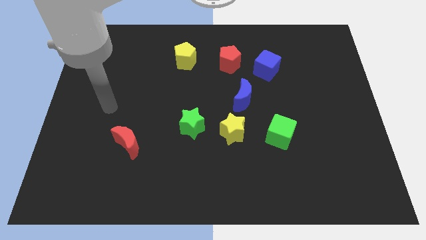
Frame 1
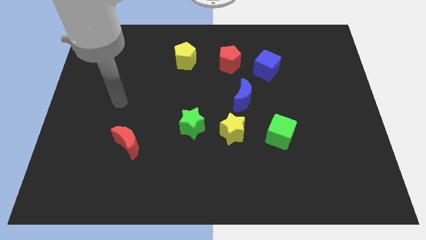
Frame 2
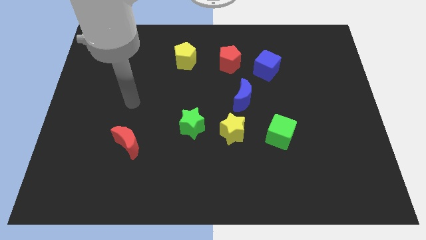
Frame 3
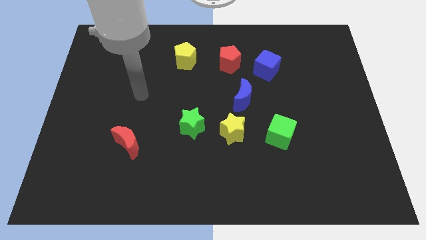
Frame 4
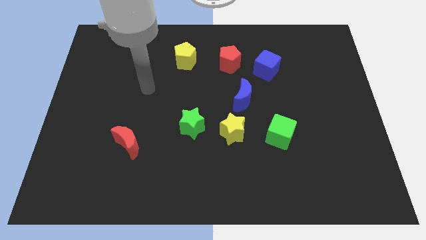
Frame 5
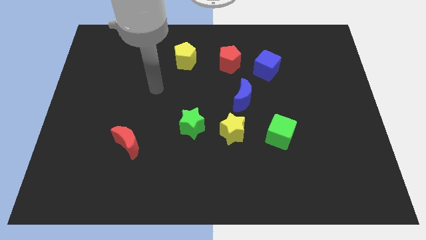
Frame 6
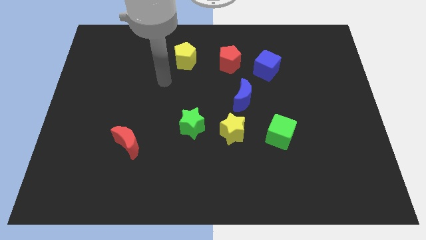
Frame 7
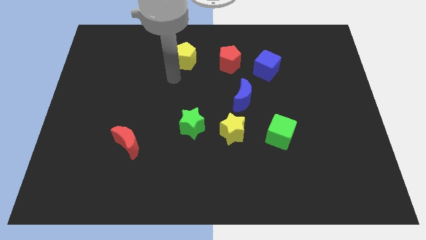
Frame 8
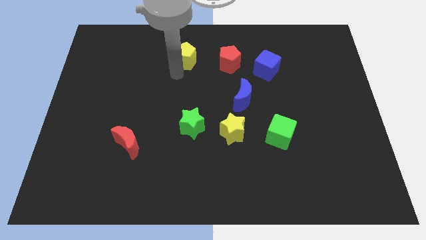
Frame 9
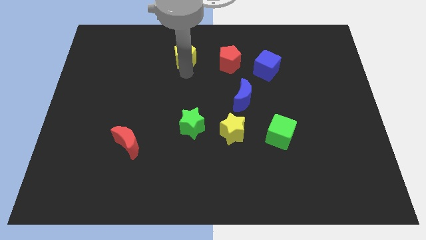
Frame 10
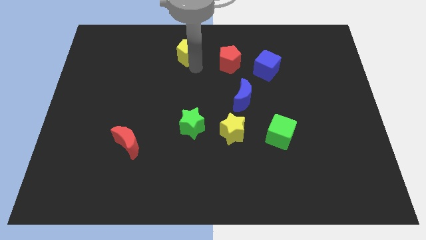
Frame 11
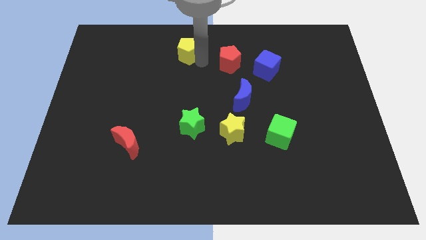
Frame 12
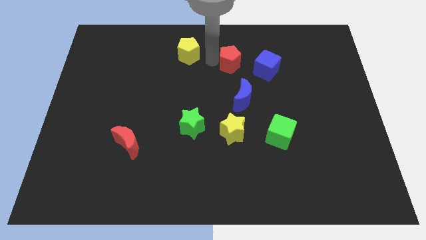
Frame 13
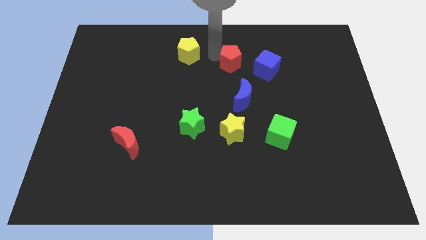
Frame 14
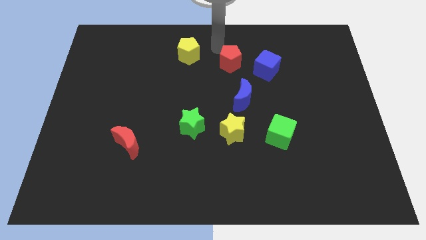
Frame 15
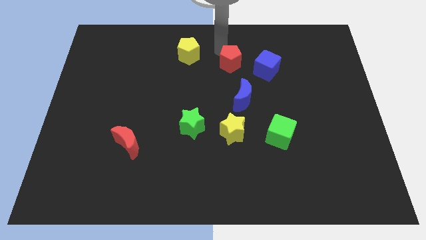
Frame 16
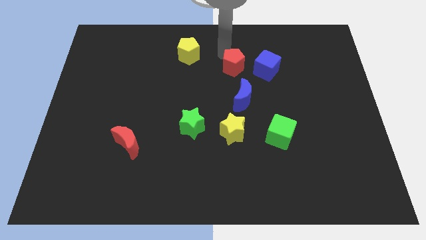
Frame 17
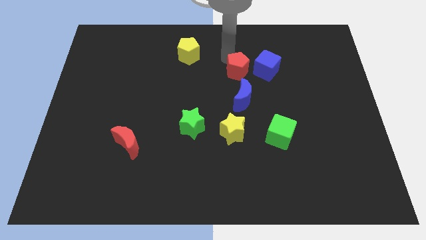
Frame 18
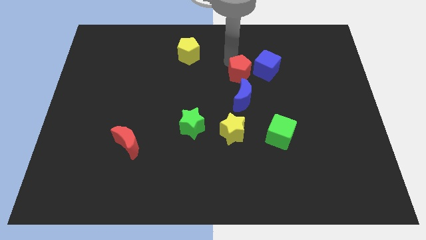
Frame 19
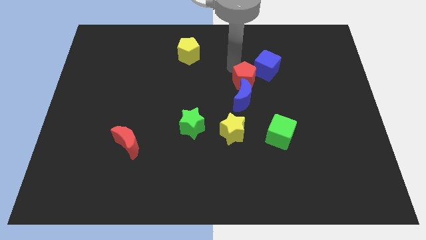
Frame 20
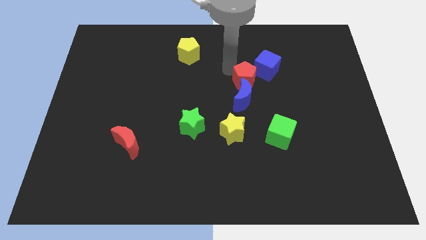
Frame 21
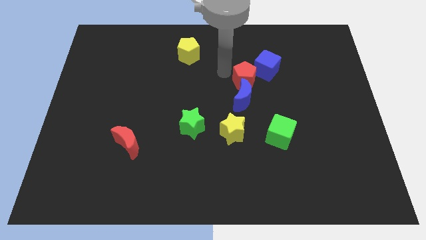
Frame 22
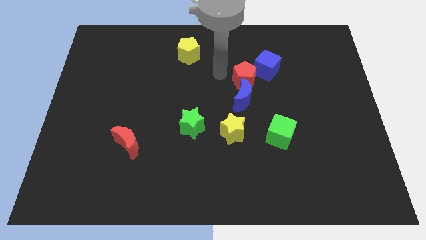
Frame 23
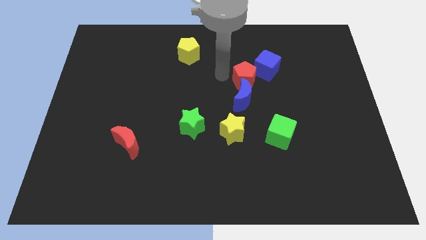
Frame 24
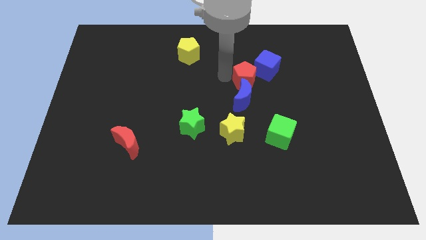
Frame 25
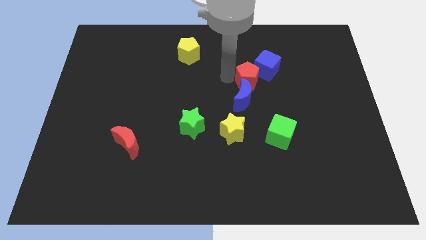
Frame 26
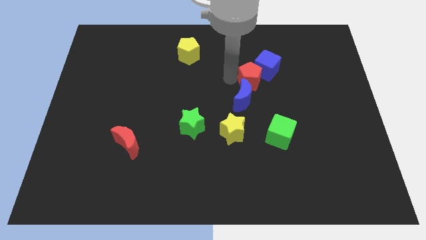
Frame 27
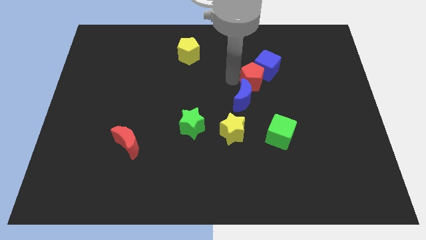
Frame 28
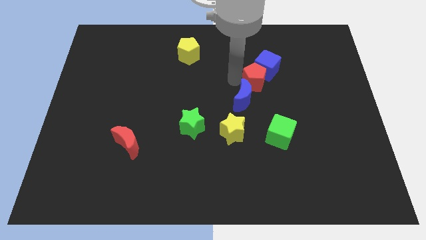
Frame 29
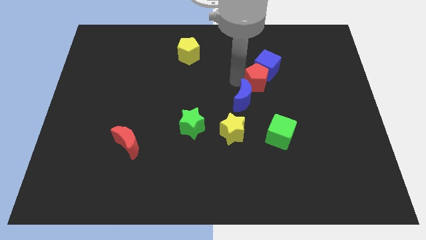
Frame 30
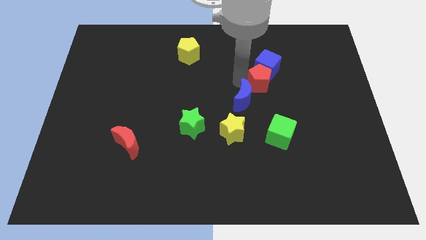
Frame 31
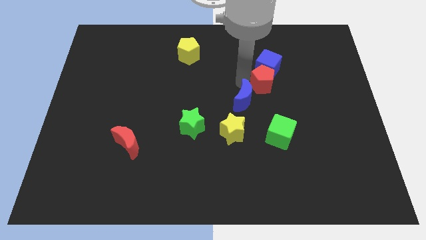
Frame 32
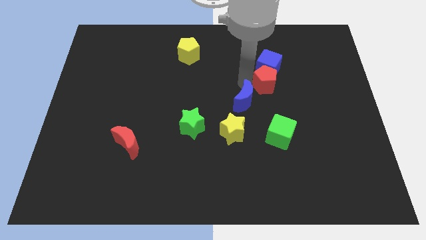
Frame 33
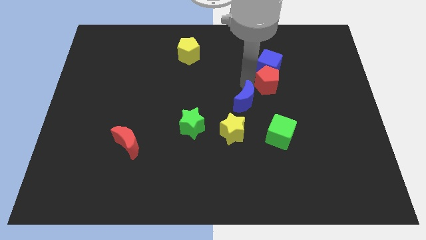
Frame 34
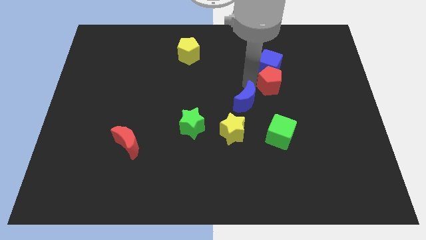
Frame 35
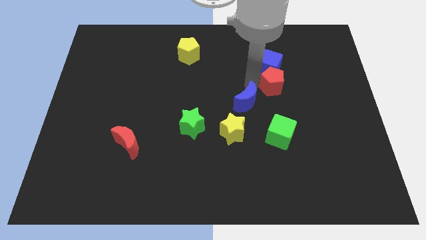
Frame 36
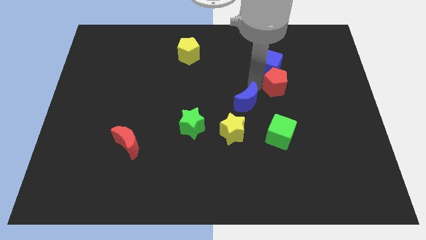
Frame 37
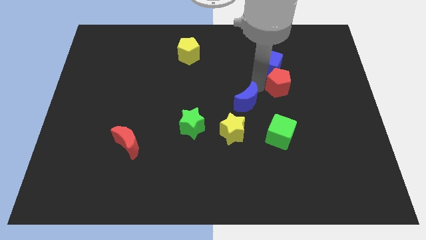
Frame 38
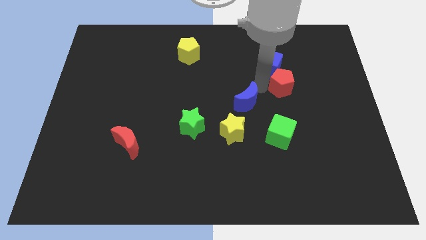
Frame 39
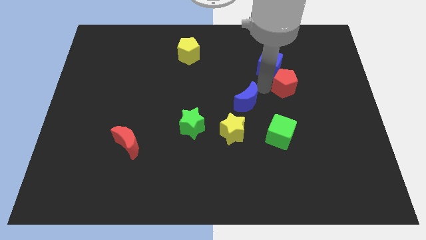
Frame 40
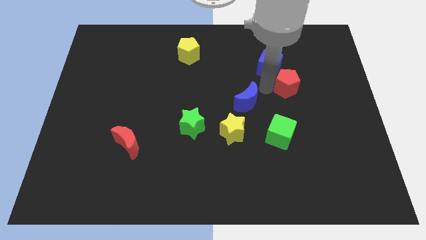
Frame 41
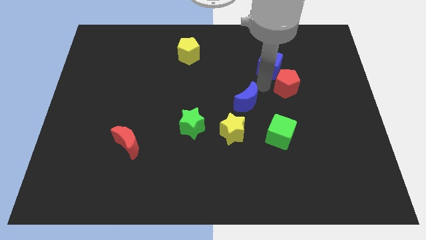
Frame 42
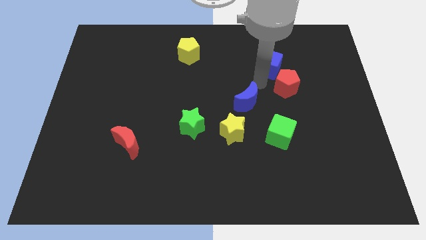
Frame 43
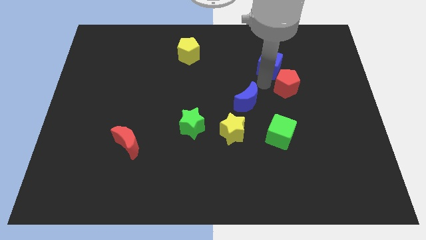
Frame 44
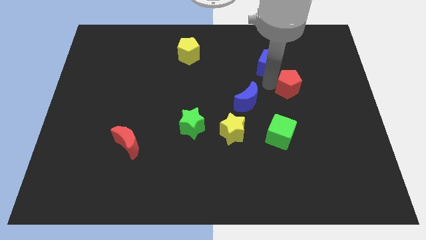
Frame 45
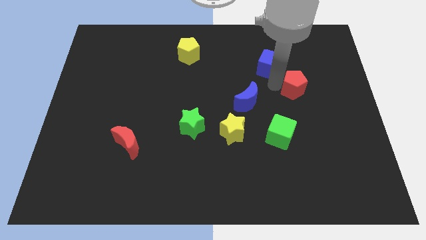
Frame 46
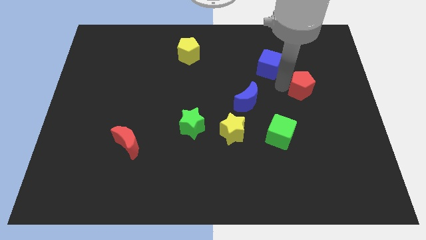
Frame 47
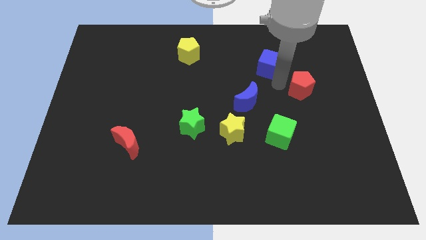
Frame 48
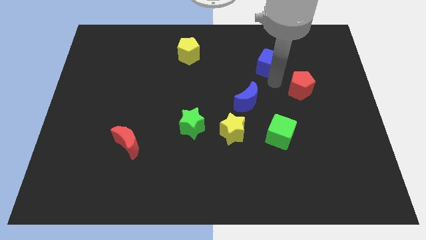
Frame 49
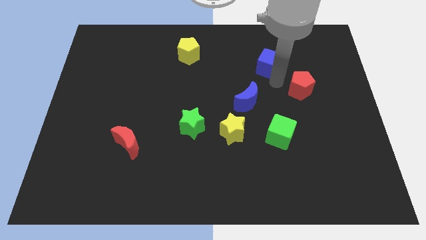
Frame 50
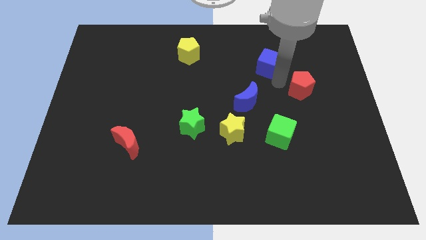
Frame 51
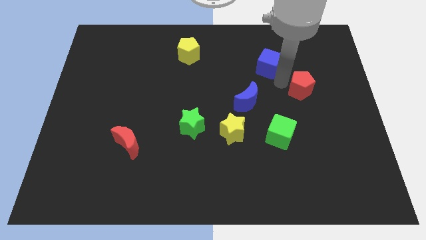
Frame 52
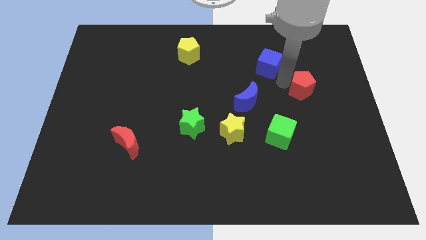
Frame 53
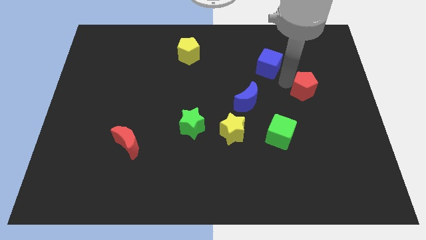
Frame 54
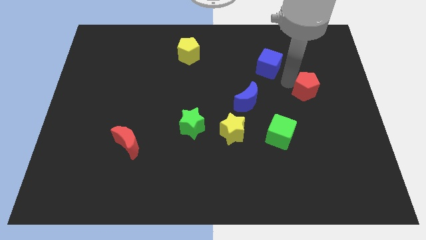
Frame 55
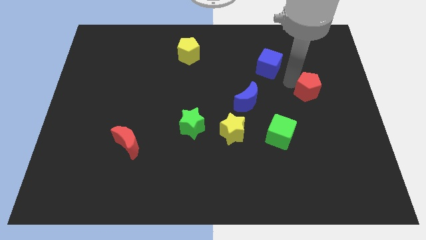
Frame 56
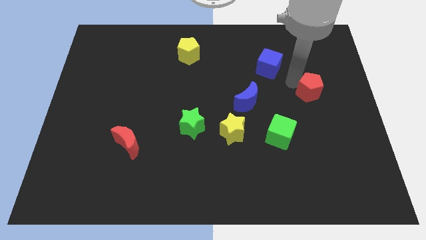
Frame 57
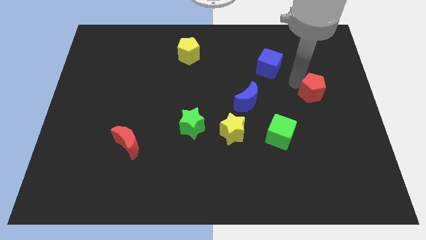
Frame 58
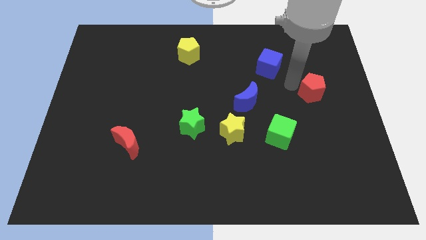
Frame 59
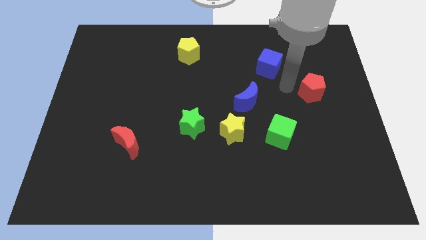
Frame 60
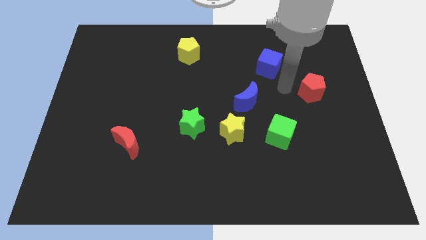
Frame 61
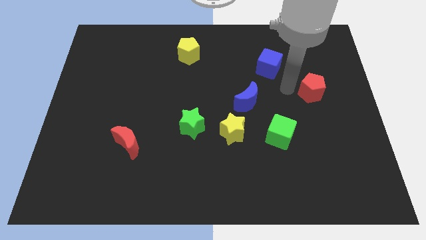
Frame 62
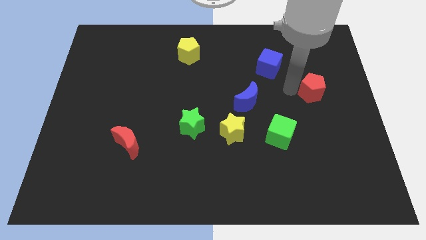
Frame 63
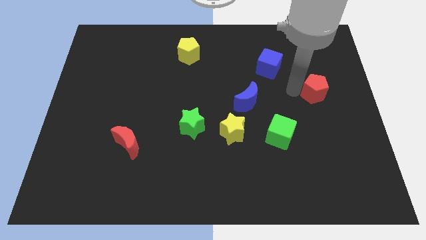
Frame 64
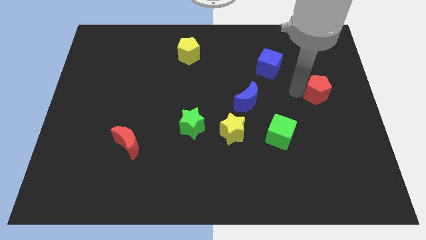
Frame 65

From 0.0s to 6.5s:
slide the red pentagon to the center right
